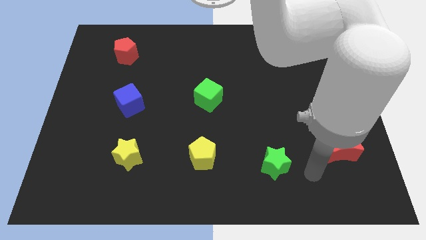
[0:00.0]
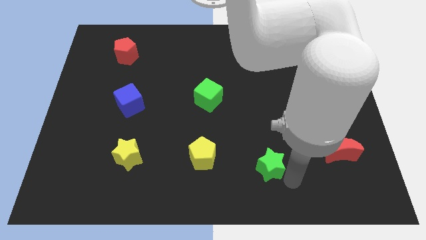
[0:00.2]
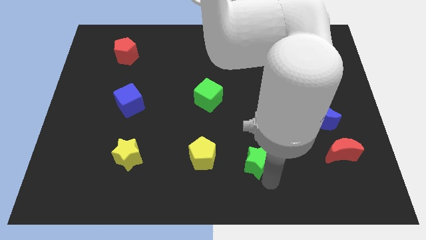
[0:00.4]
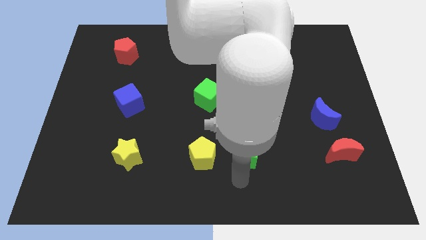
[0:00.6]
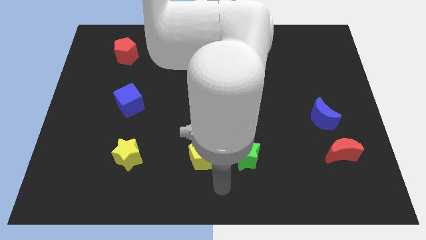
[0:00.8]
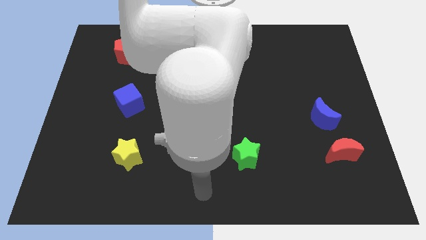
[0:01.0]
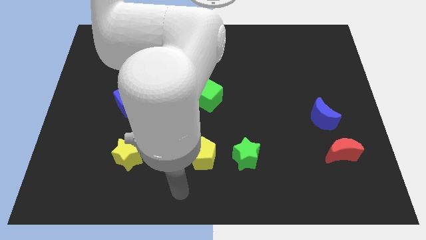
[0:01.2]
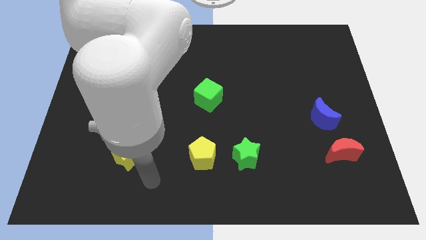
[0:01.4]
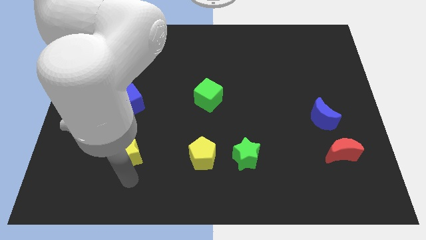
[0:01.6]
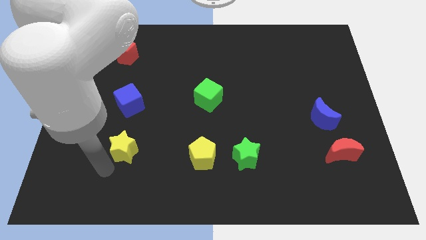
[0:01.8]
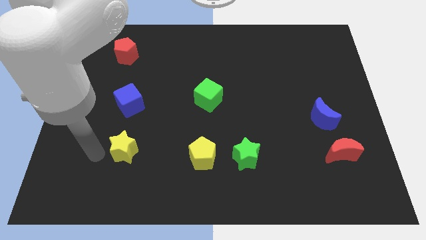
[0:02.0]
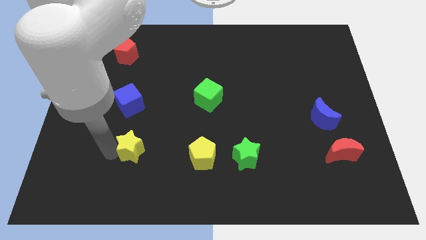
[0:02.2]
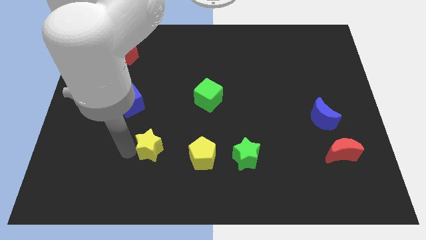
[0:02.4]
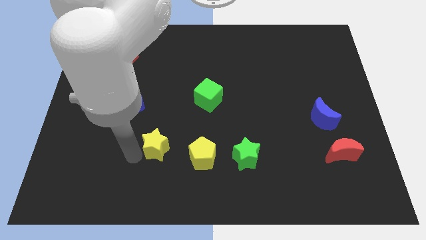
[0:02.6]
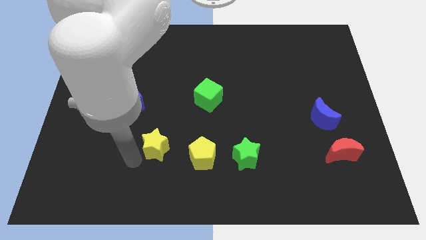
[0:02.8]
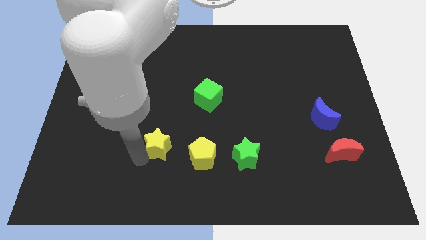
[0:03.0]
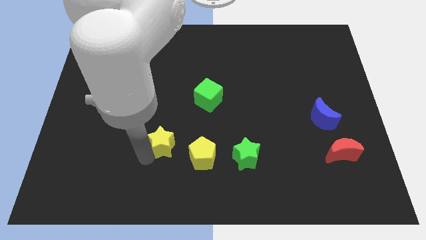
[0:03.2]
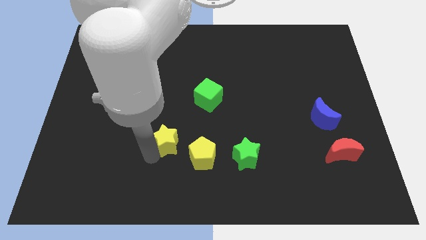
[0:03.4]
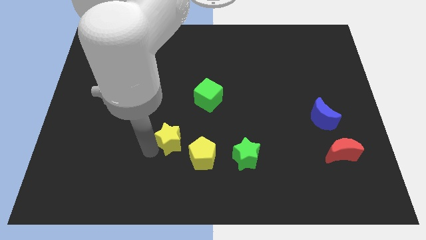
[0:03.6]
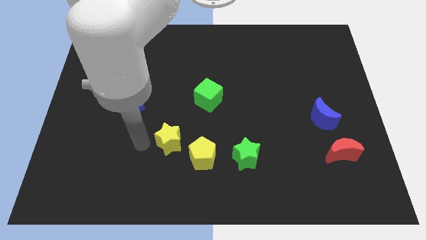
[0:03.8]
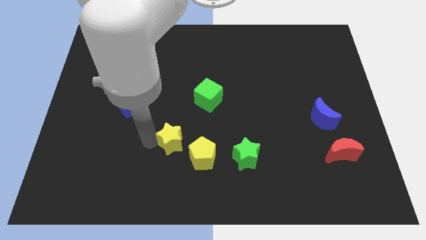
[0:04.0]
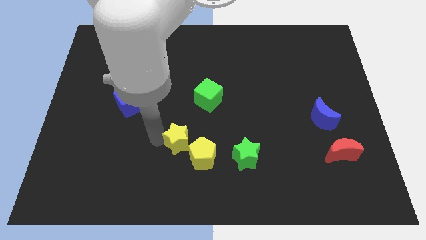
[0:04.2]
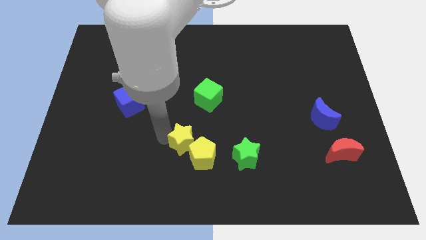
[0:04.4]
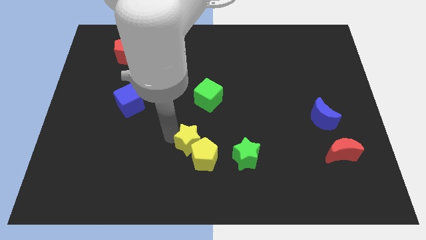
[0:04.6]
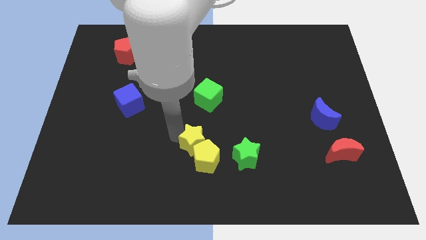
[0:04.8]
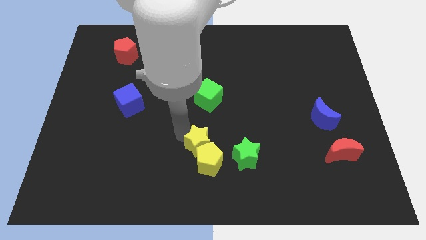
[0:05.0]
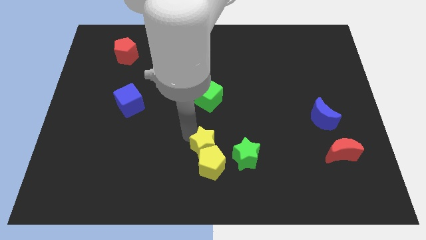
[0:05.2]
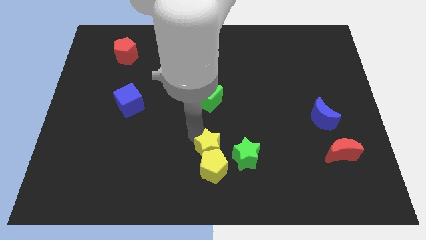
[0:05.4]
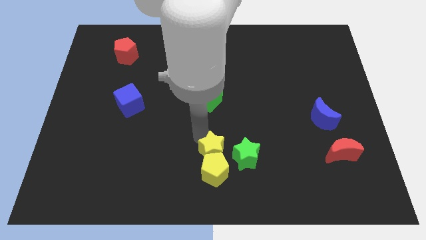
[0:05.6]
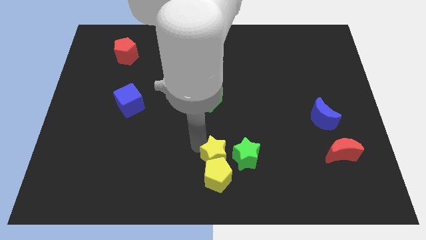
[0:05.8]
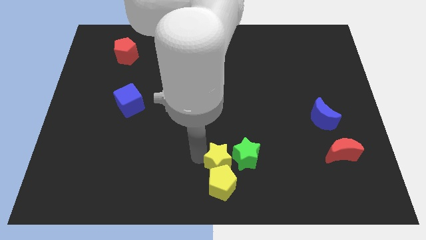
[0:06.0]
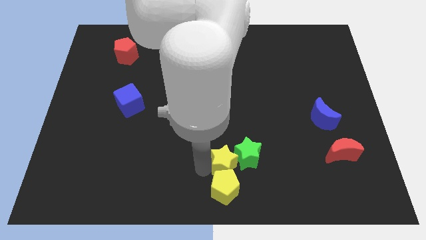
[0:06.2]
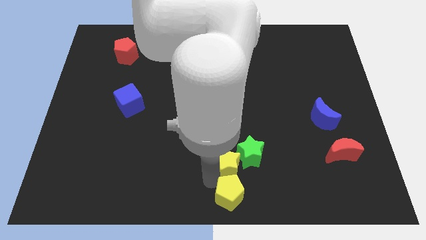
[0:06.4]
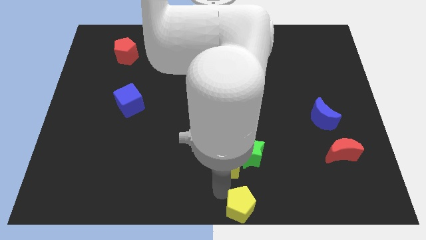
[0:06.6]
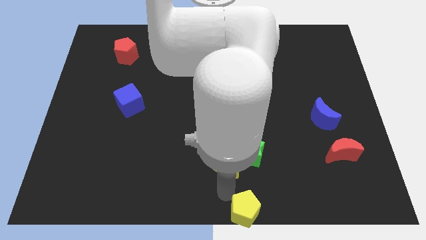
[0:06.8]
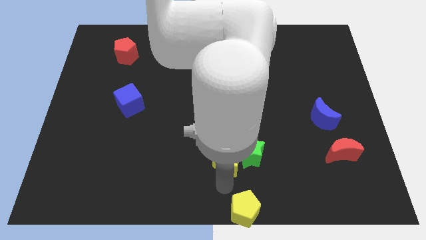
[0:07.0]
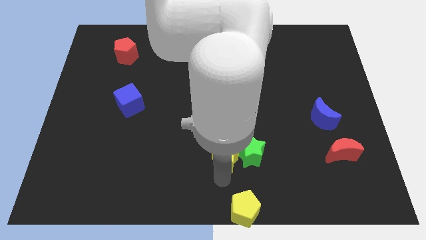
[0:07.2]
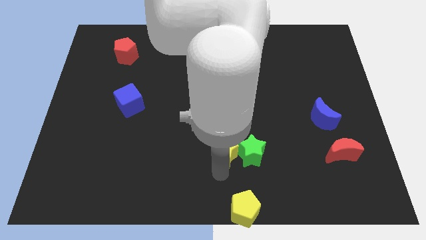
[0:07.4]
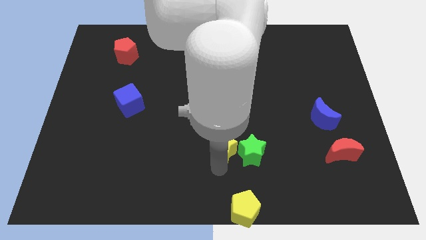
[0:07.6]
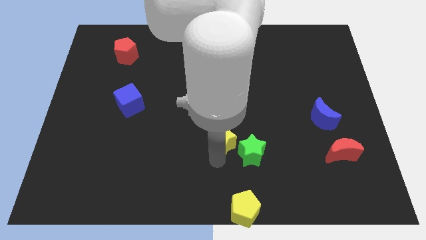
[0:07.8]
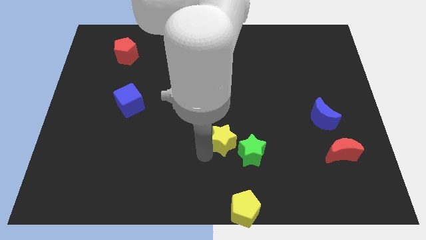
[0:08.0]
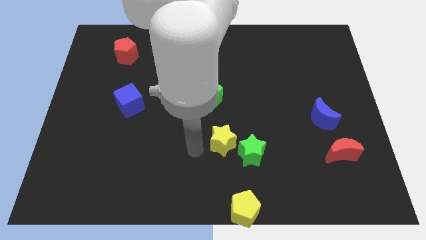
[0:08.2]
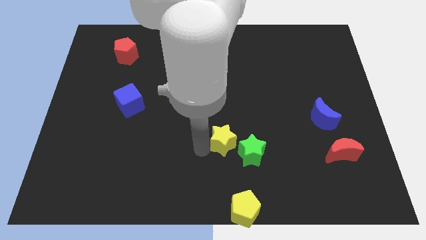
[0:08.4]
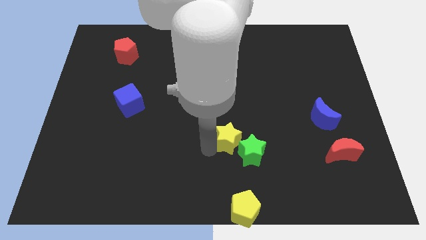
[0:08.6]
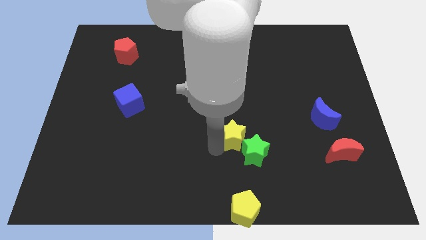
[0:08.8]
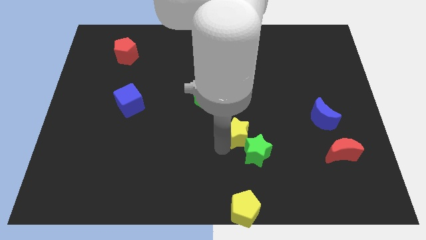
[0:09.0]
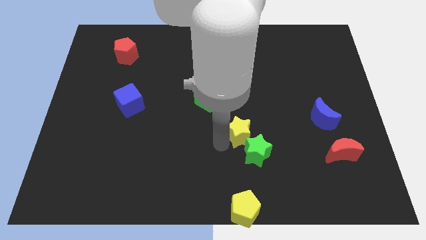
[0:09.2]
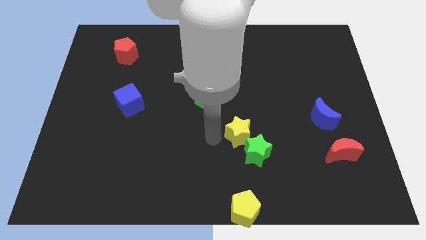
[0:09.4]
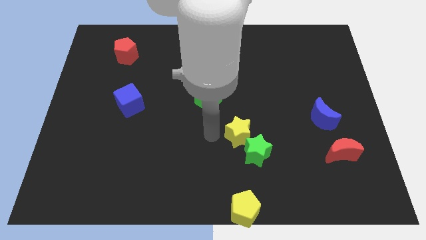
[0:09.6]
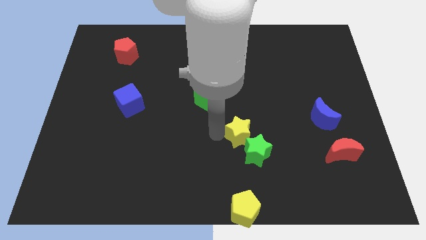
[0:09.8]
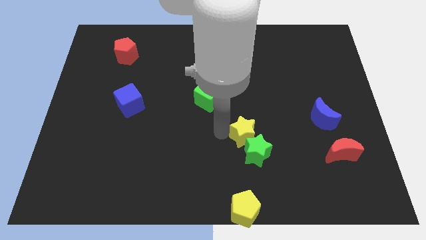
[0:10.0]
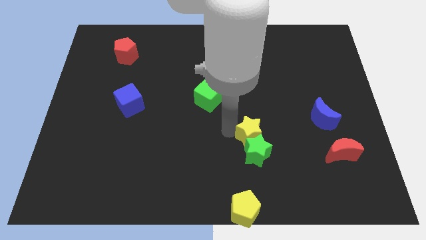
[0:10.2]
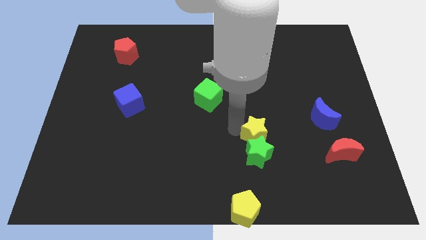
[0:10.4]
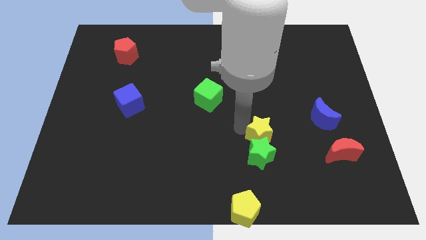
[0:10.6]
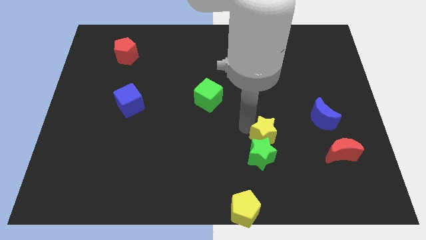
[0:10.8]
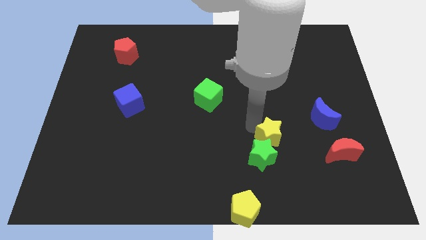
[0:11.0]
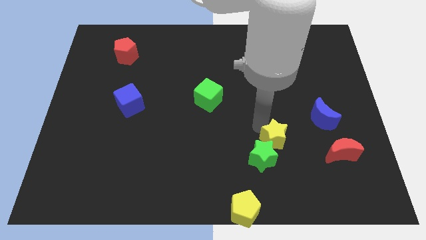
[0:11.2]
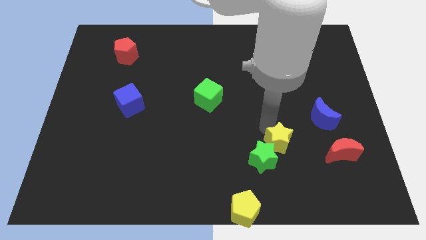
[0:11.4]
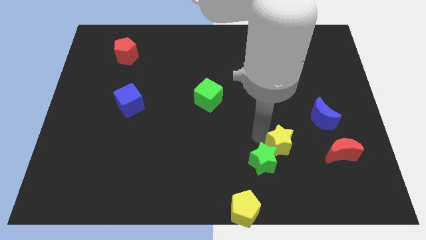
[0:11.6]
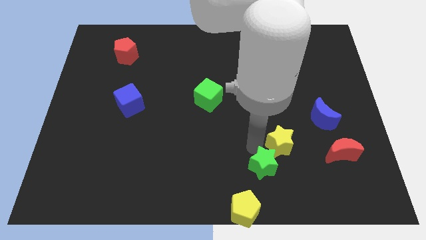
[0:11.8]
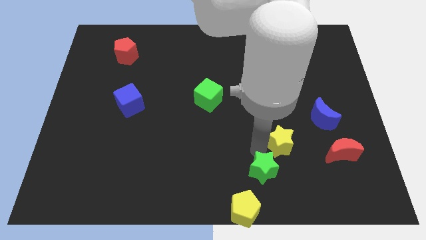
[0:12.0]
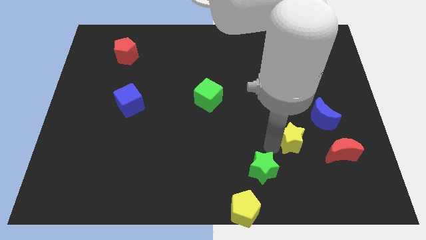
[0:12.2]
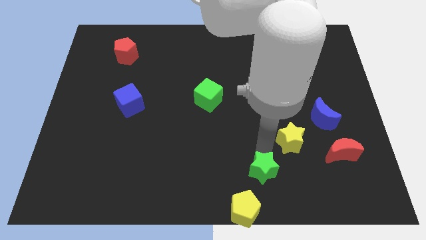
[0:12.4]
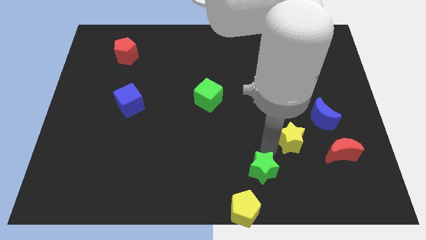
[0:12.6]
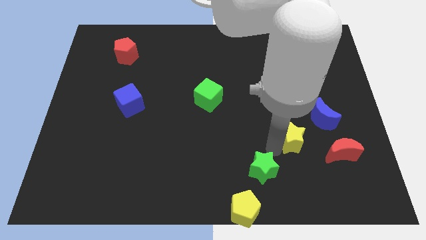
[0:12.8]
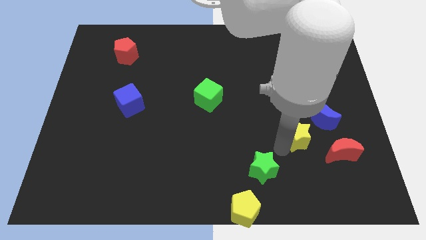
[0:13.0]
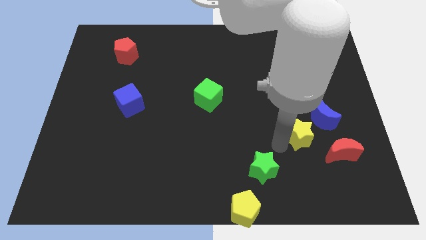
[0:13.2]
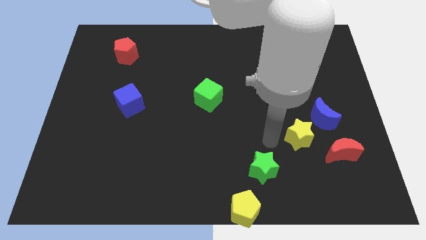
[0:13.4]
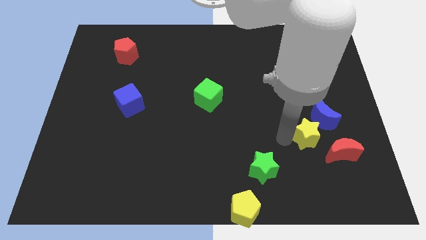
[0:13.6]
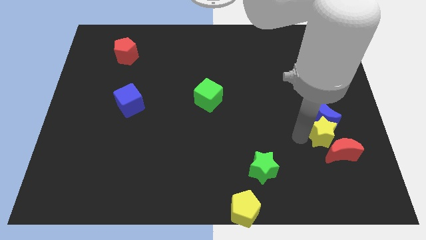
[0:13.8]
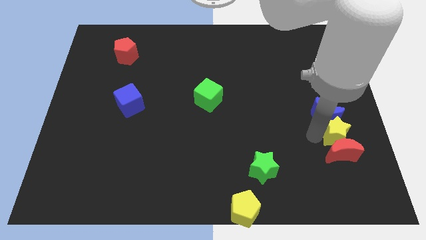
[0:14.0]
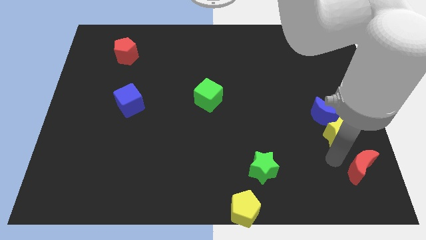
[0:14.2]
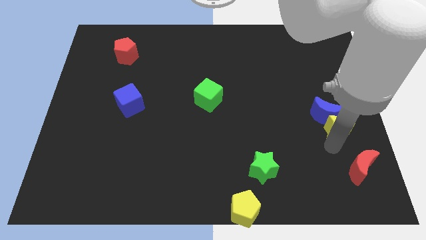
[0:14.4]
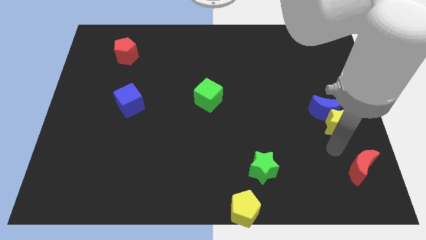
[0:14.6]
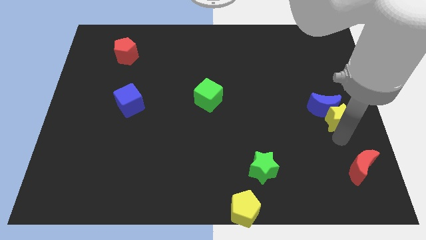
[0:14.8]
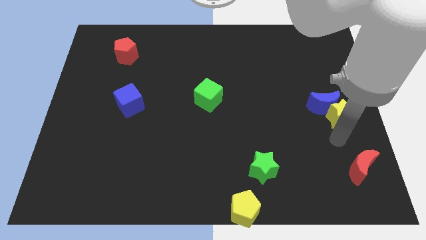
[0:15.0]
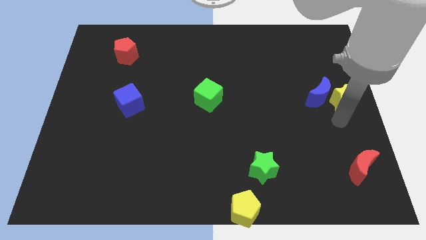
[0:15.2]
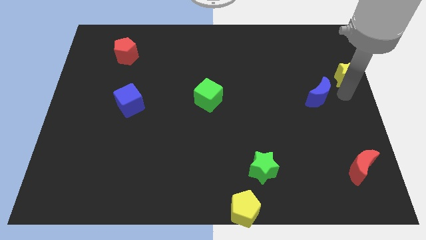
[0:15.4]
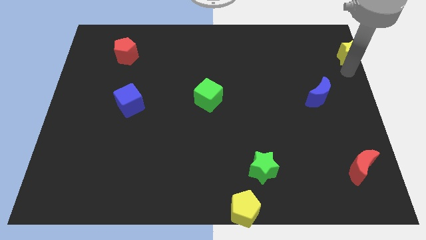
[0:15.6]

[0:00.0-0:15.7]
move the yellow star to the top right of the board
